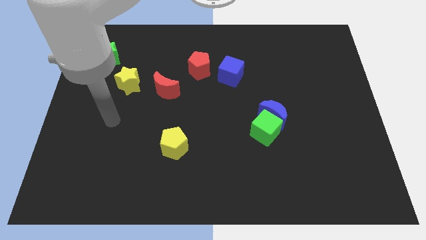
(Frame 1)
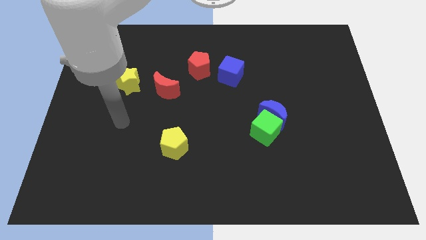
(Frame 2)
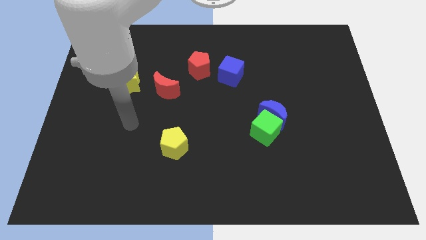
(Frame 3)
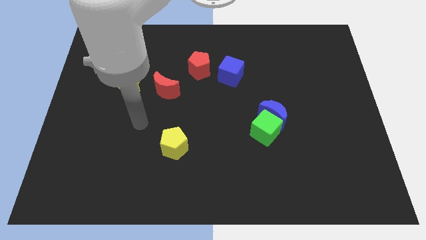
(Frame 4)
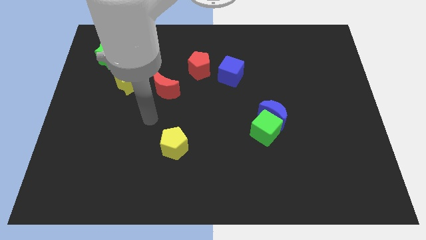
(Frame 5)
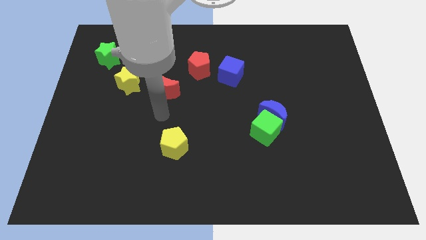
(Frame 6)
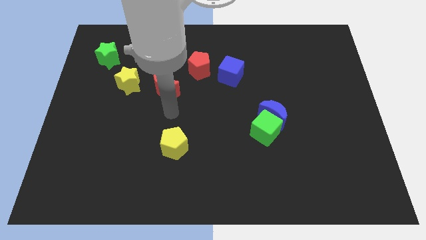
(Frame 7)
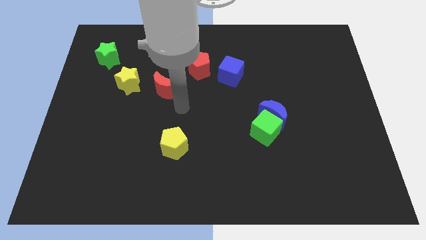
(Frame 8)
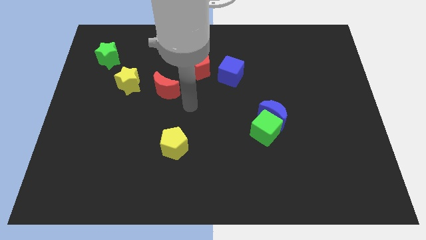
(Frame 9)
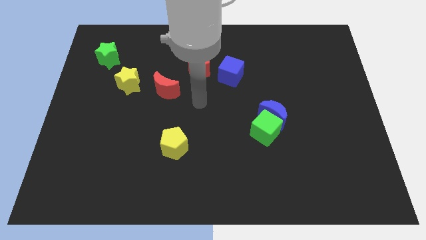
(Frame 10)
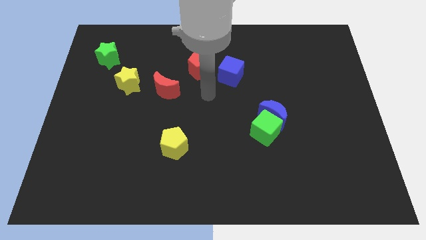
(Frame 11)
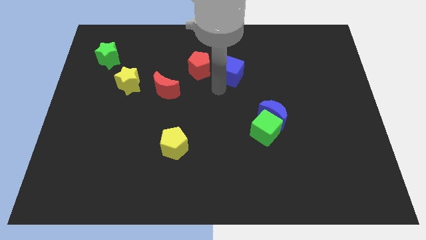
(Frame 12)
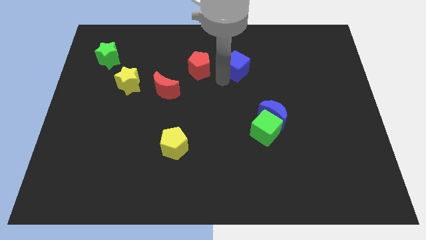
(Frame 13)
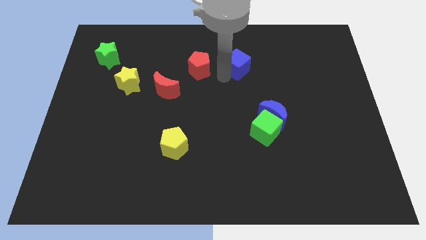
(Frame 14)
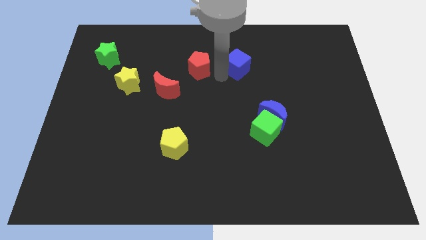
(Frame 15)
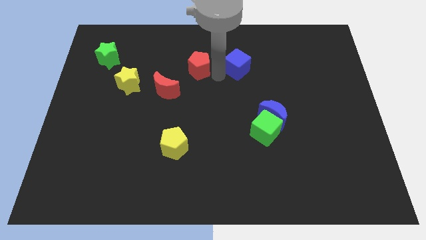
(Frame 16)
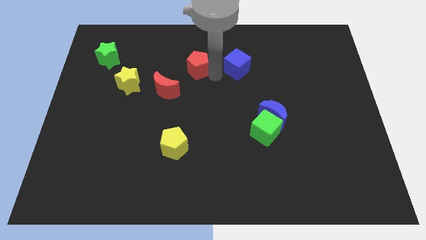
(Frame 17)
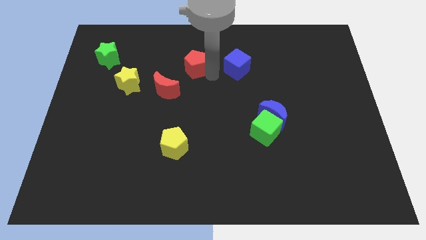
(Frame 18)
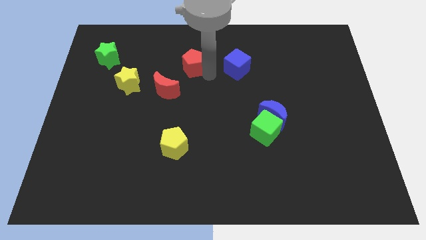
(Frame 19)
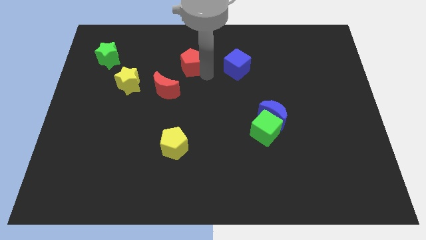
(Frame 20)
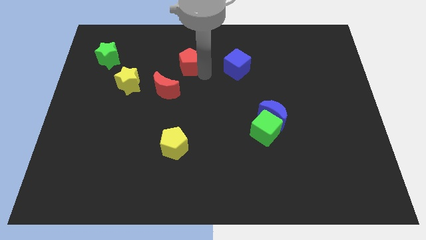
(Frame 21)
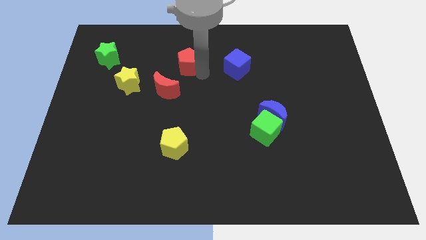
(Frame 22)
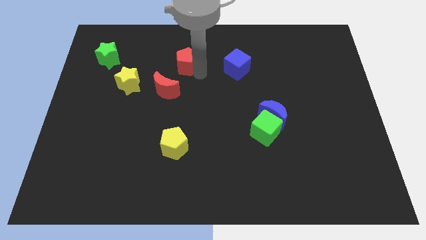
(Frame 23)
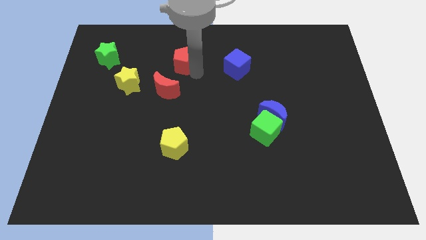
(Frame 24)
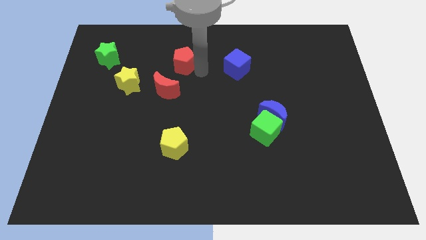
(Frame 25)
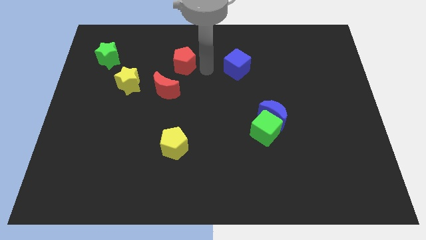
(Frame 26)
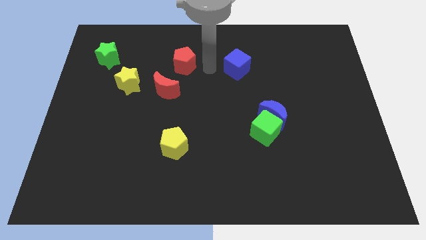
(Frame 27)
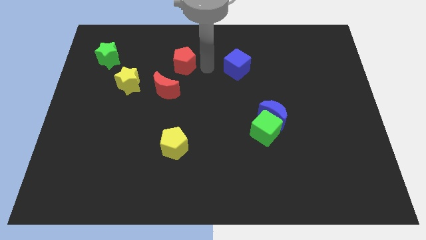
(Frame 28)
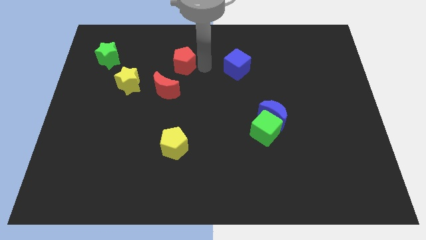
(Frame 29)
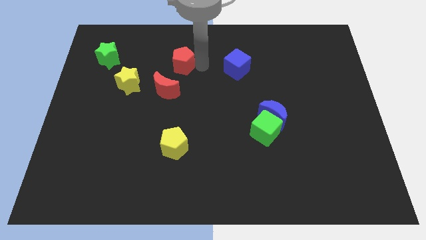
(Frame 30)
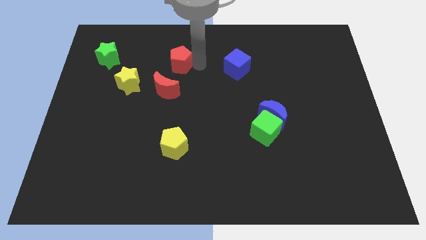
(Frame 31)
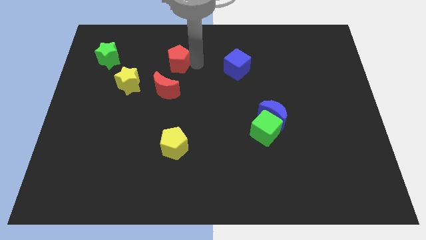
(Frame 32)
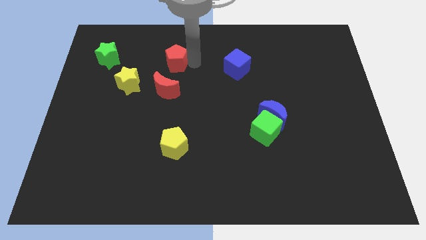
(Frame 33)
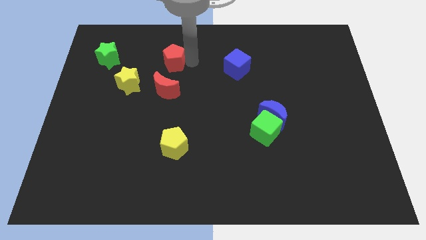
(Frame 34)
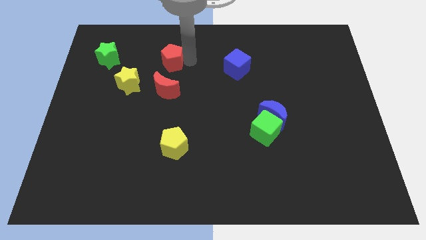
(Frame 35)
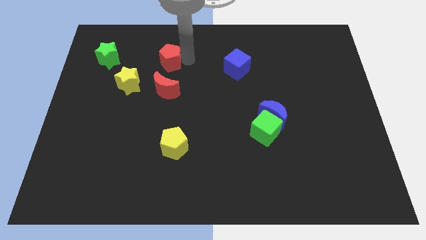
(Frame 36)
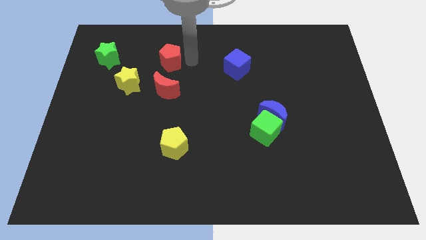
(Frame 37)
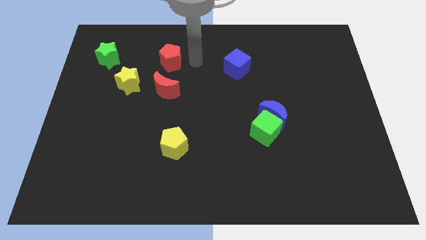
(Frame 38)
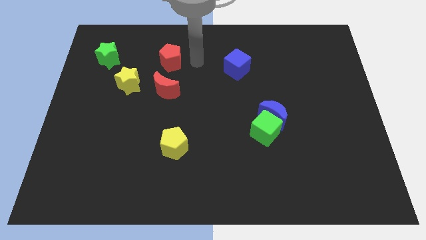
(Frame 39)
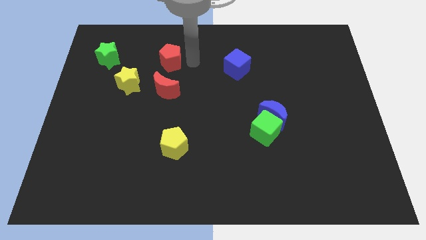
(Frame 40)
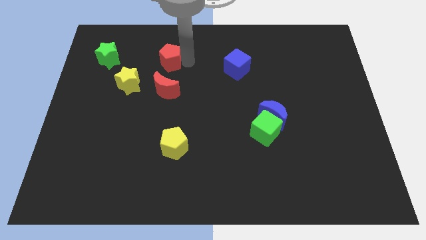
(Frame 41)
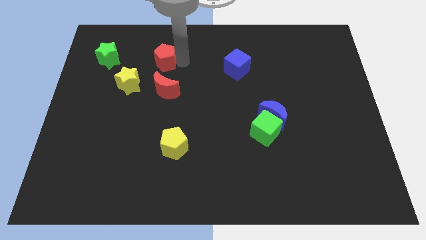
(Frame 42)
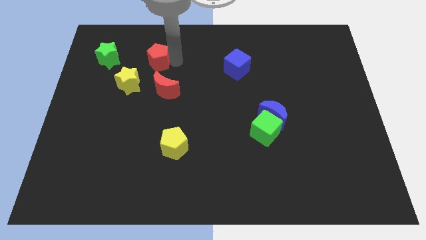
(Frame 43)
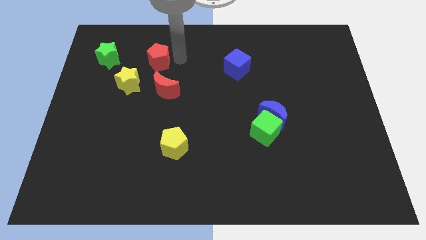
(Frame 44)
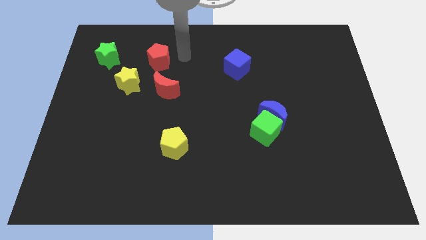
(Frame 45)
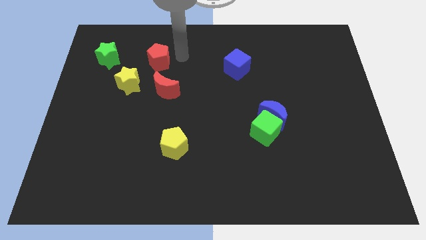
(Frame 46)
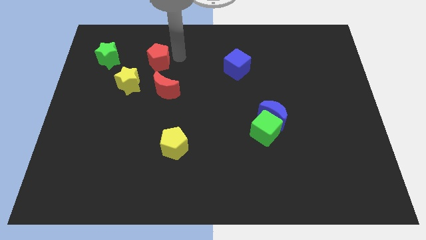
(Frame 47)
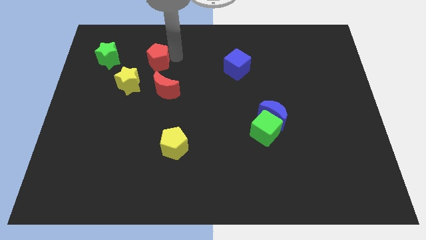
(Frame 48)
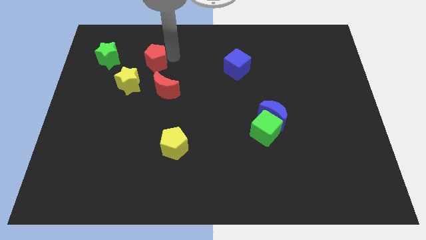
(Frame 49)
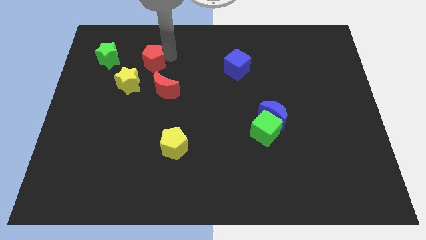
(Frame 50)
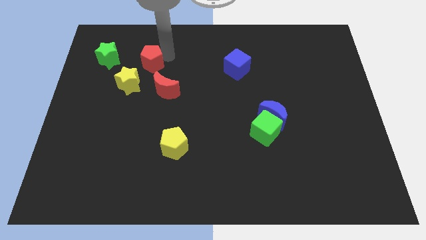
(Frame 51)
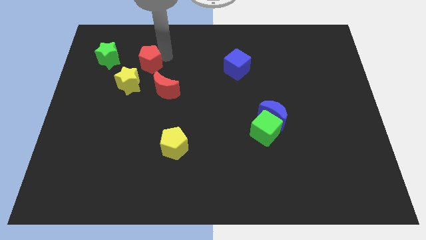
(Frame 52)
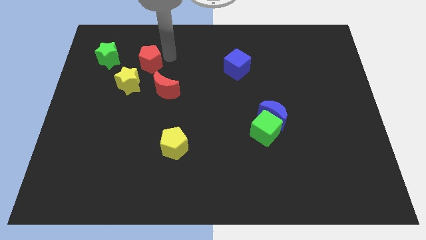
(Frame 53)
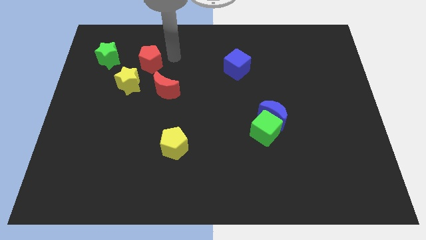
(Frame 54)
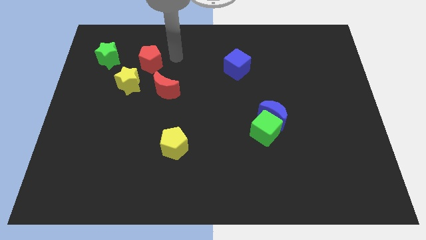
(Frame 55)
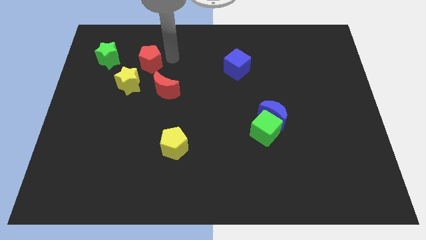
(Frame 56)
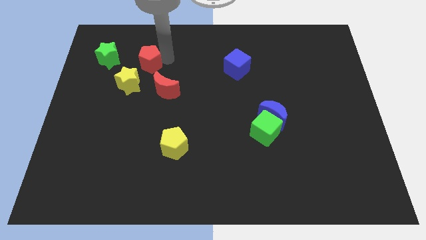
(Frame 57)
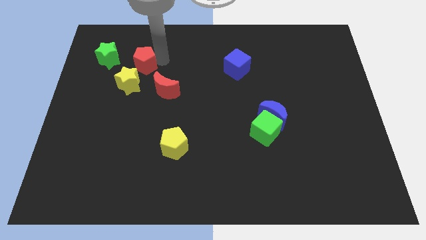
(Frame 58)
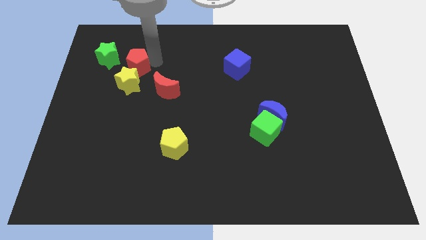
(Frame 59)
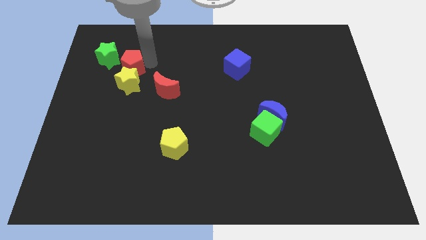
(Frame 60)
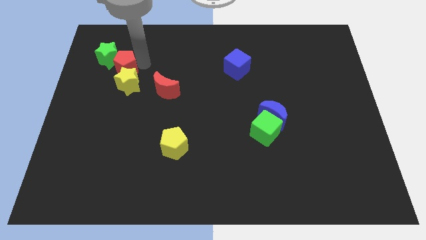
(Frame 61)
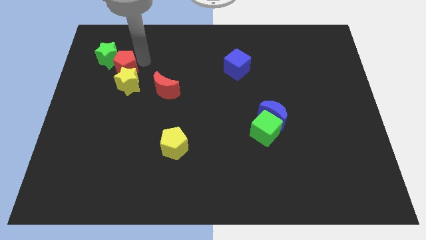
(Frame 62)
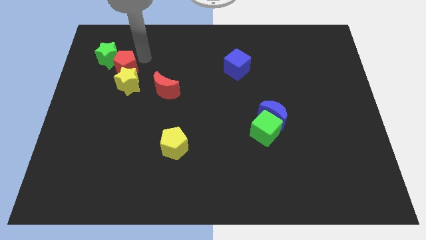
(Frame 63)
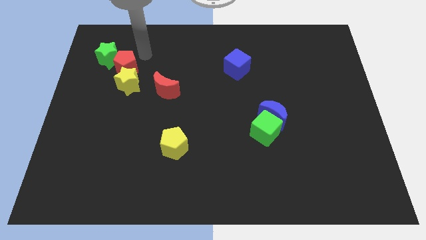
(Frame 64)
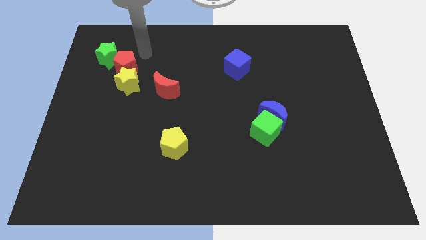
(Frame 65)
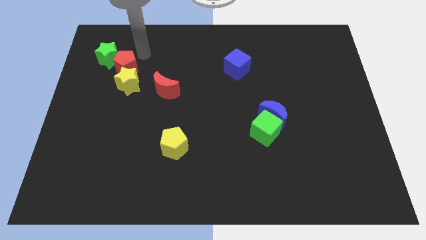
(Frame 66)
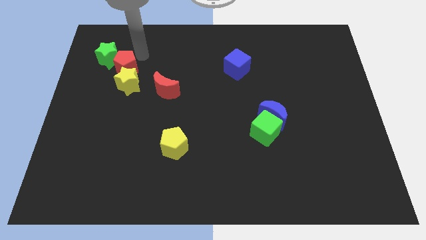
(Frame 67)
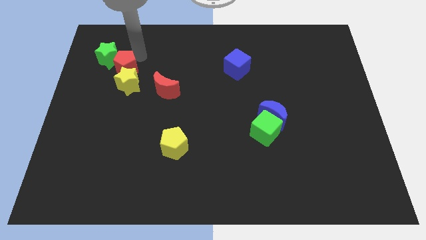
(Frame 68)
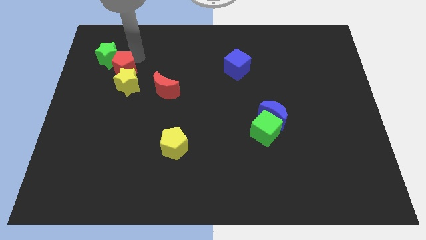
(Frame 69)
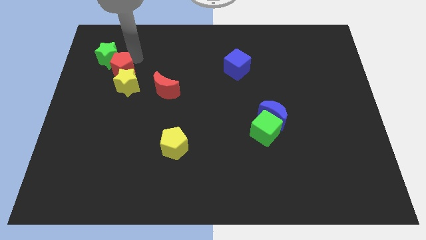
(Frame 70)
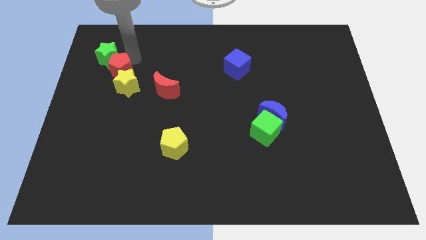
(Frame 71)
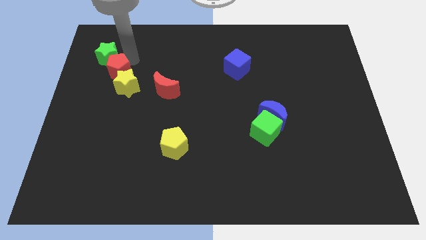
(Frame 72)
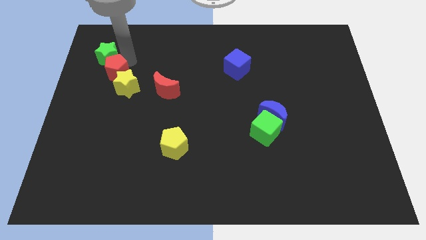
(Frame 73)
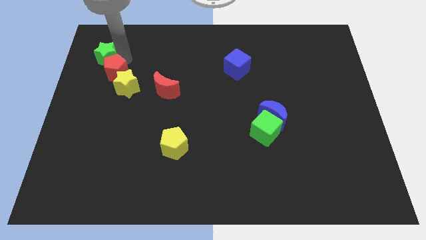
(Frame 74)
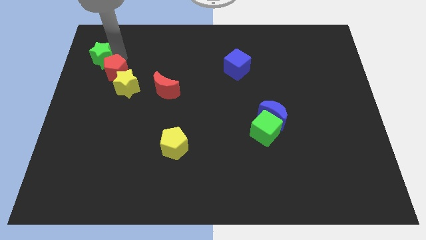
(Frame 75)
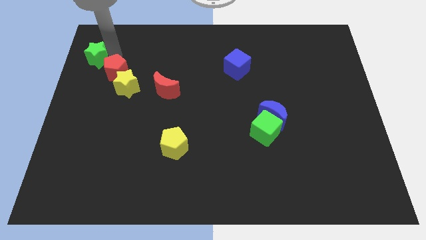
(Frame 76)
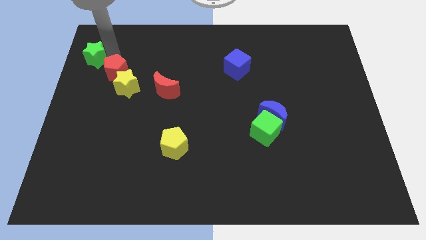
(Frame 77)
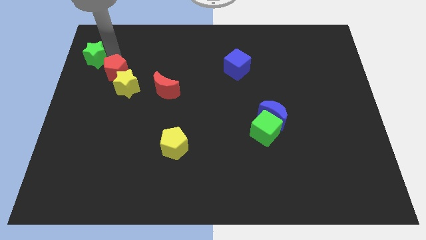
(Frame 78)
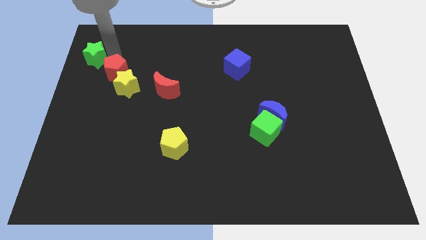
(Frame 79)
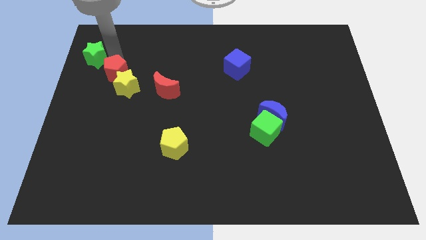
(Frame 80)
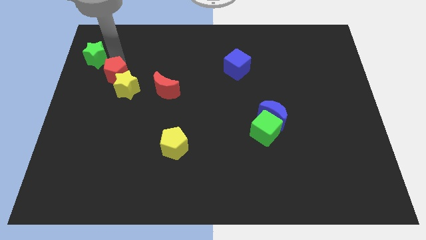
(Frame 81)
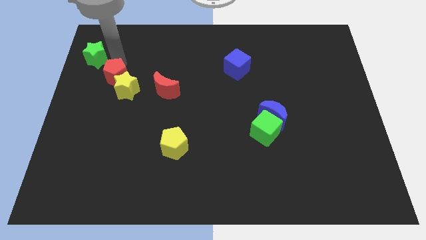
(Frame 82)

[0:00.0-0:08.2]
push the red pentagon to the left side of the red moon
